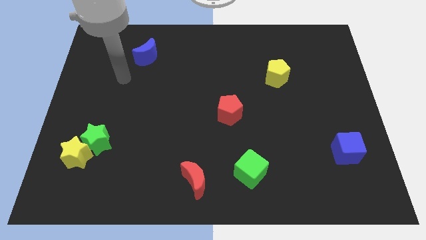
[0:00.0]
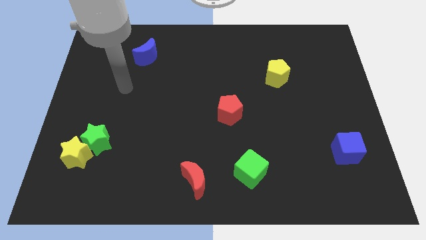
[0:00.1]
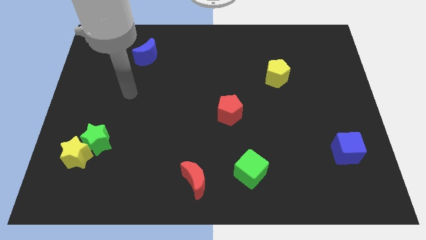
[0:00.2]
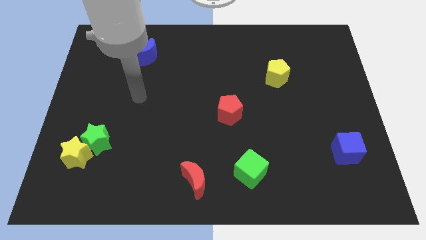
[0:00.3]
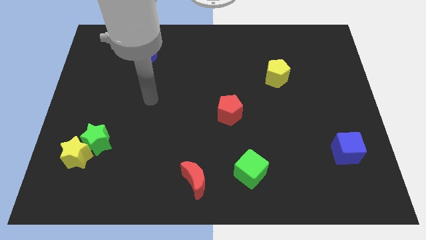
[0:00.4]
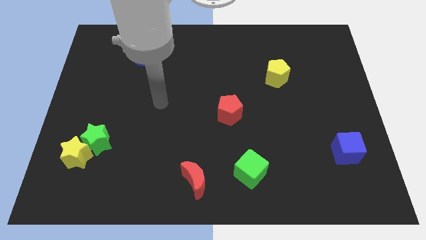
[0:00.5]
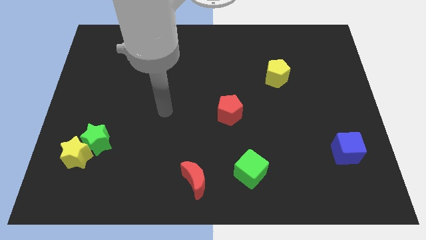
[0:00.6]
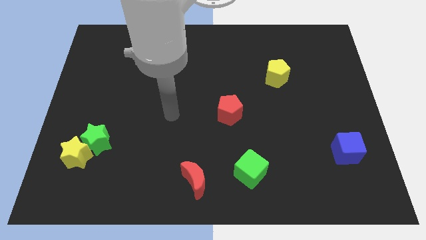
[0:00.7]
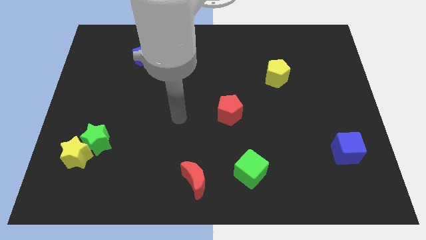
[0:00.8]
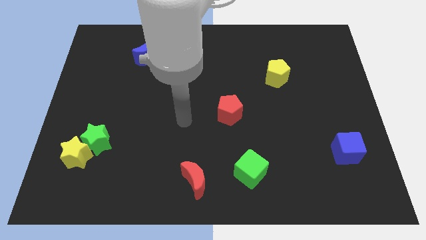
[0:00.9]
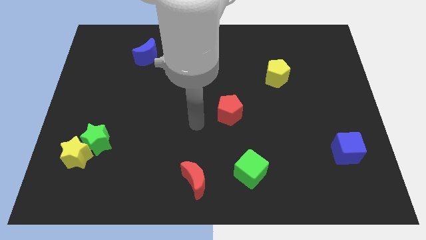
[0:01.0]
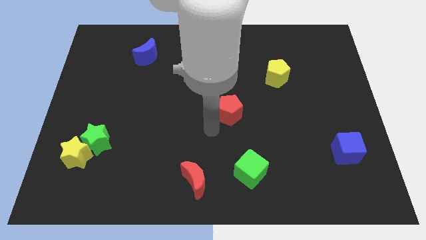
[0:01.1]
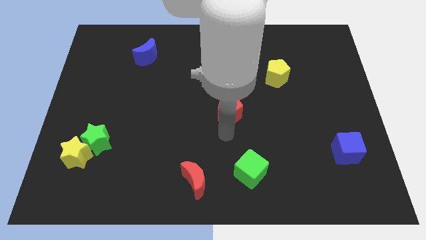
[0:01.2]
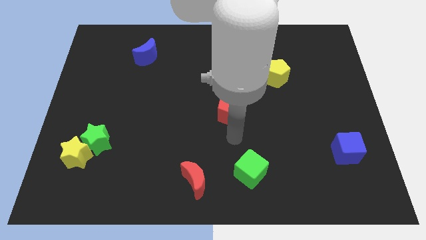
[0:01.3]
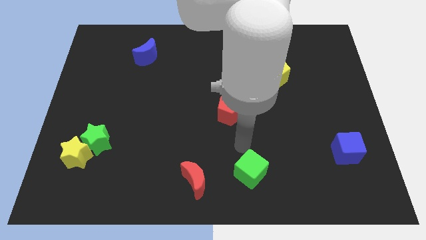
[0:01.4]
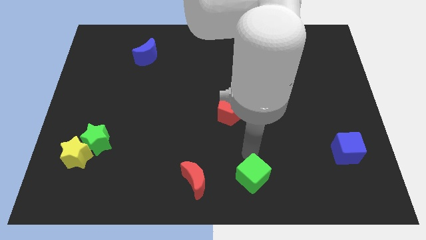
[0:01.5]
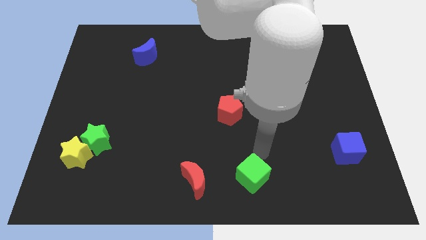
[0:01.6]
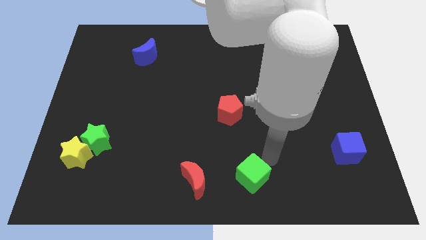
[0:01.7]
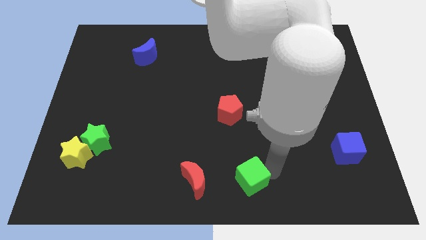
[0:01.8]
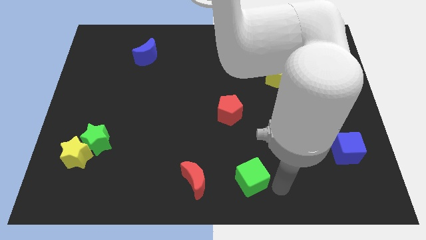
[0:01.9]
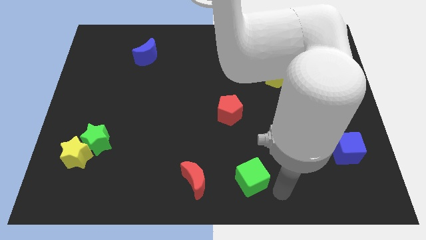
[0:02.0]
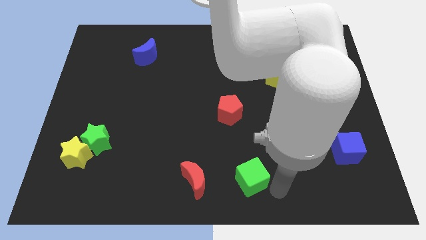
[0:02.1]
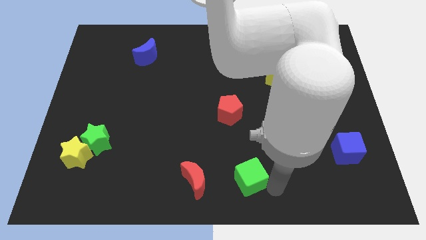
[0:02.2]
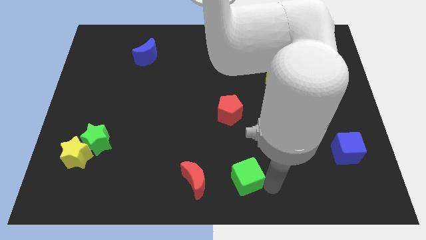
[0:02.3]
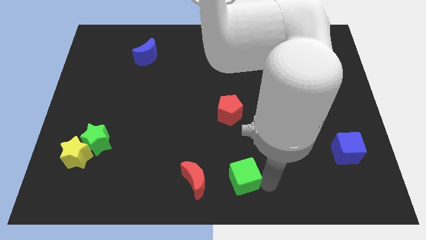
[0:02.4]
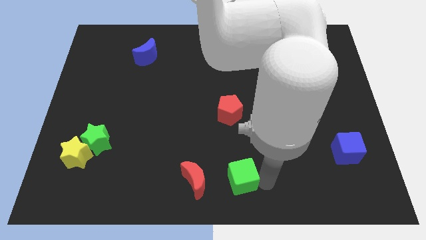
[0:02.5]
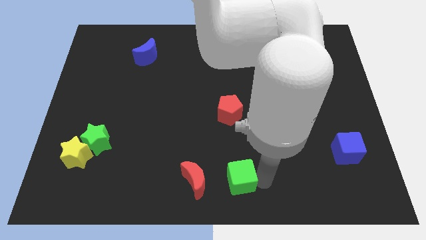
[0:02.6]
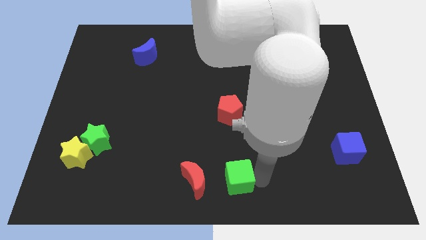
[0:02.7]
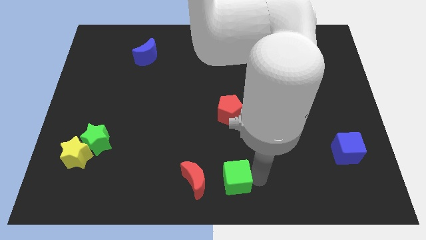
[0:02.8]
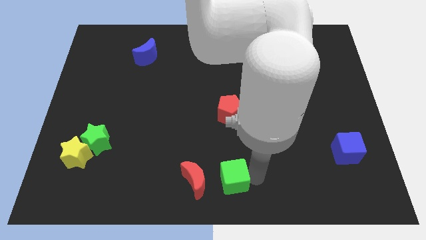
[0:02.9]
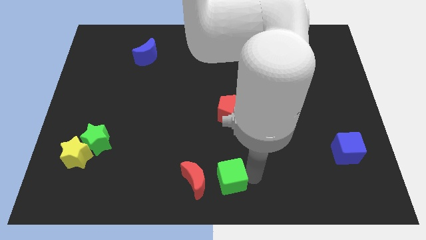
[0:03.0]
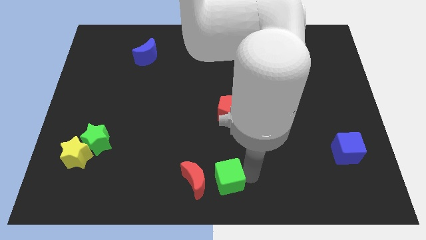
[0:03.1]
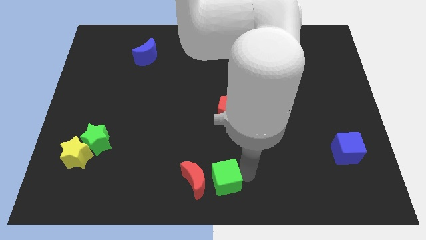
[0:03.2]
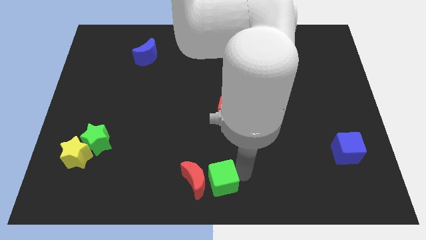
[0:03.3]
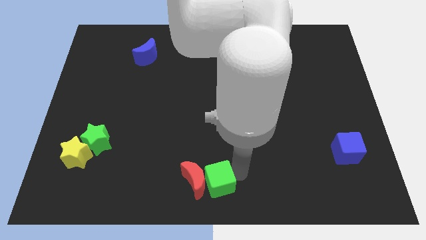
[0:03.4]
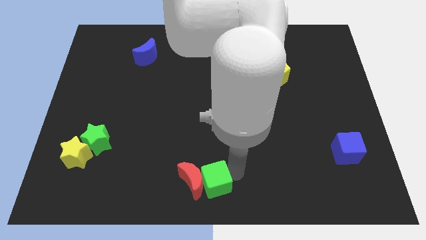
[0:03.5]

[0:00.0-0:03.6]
slightly slide the green cube to the left

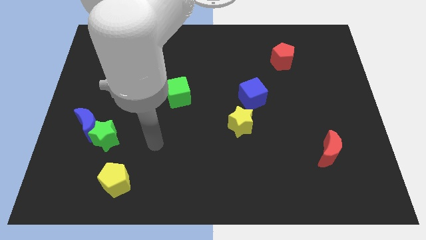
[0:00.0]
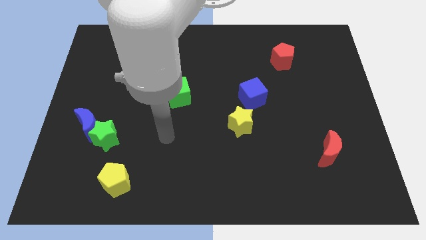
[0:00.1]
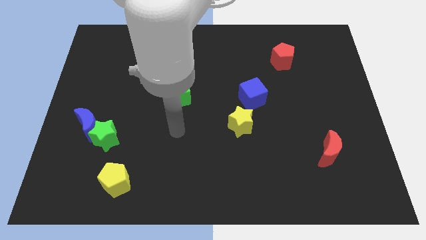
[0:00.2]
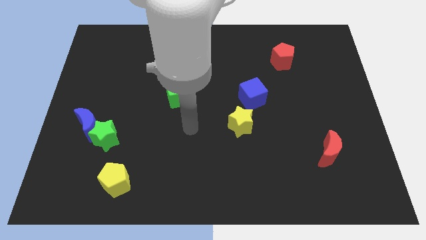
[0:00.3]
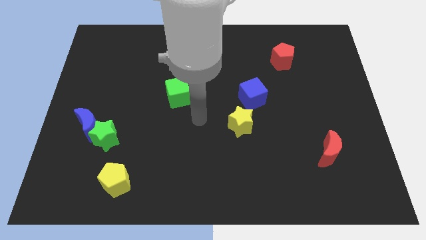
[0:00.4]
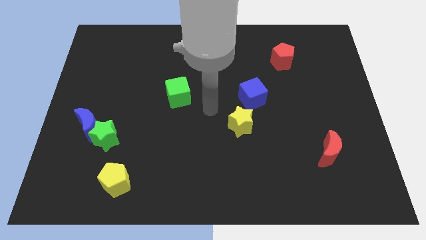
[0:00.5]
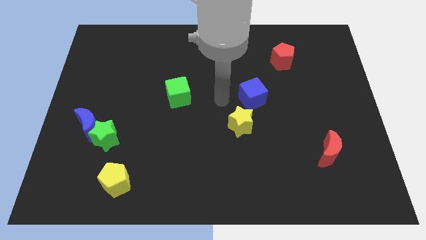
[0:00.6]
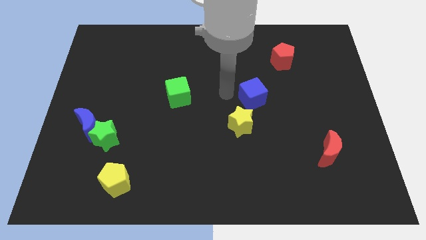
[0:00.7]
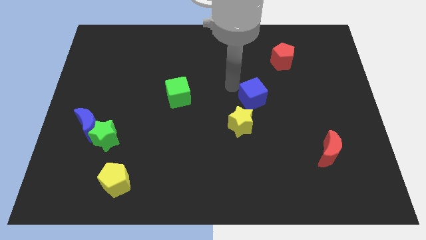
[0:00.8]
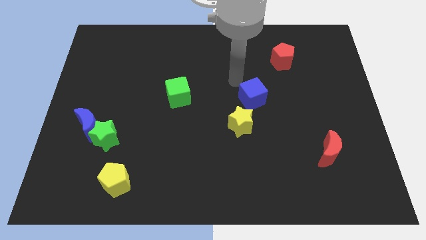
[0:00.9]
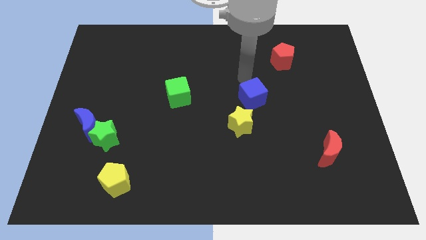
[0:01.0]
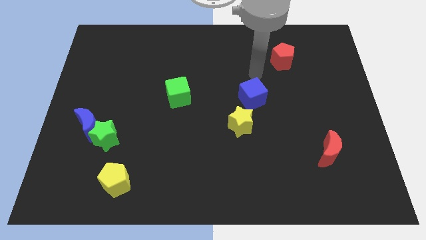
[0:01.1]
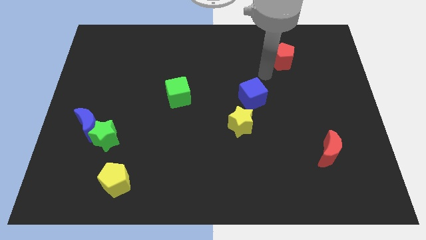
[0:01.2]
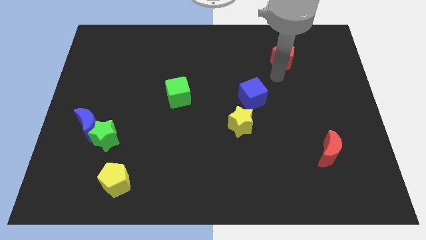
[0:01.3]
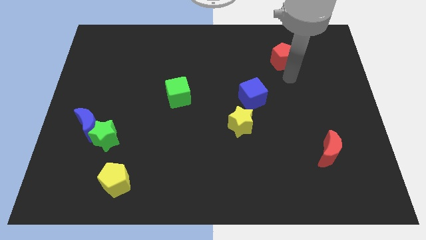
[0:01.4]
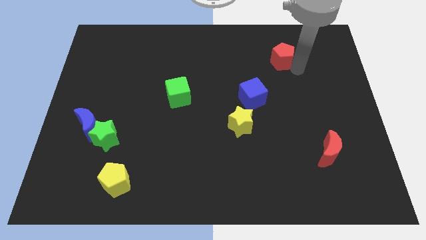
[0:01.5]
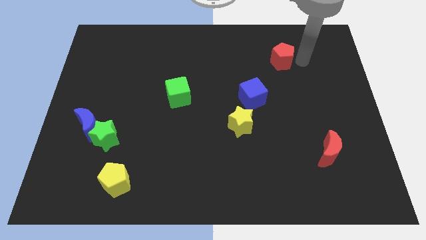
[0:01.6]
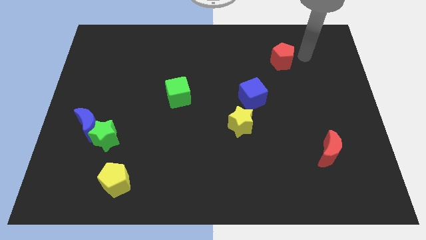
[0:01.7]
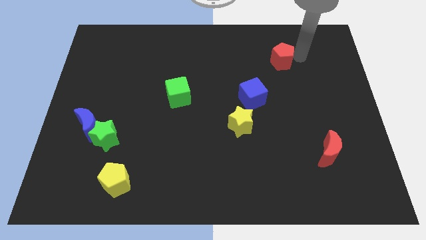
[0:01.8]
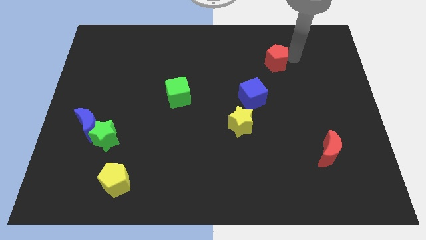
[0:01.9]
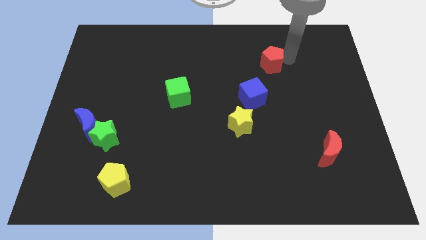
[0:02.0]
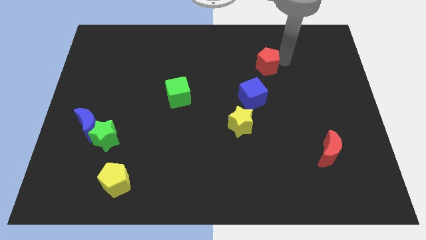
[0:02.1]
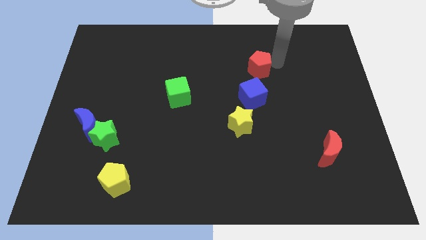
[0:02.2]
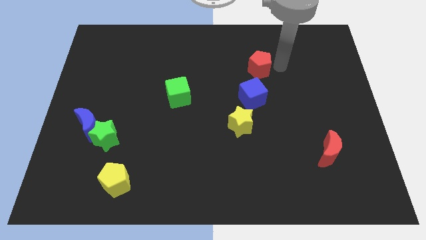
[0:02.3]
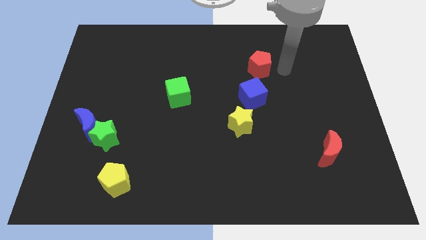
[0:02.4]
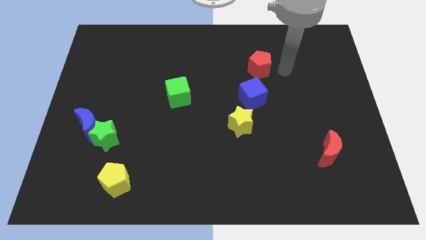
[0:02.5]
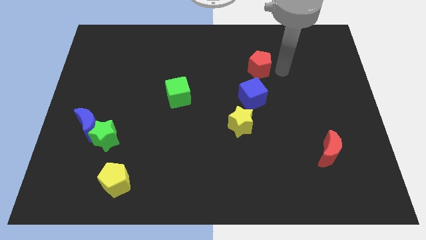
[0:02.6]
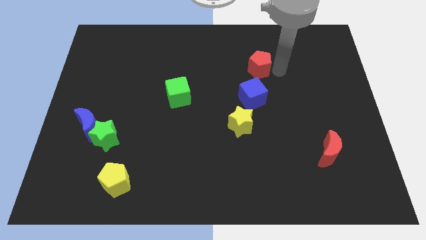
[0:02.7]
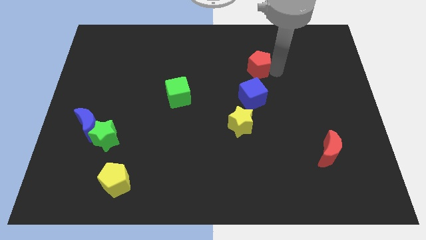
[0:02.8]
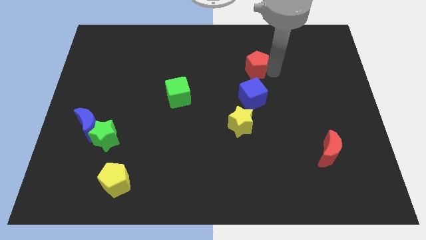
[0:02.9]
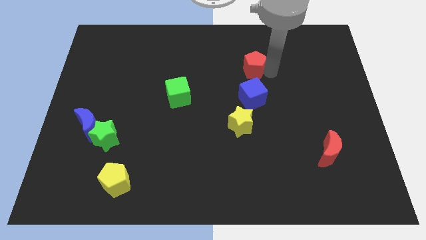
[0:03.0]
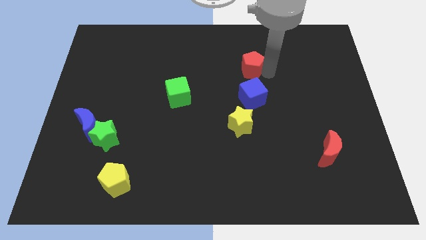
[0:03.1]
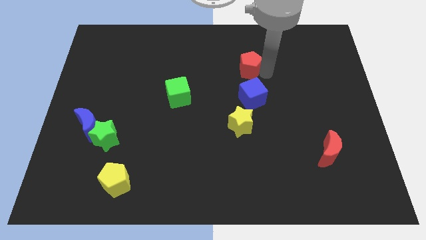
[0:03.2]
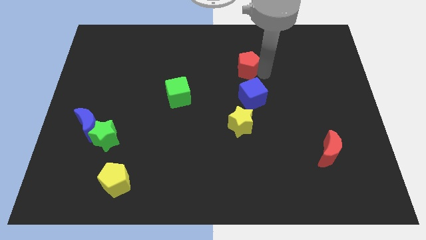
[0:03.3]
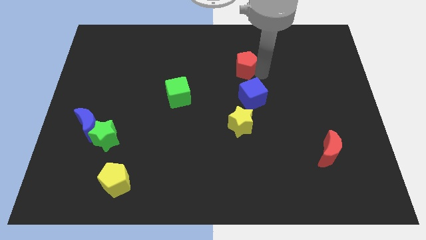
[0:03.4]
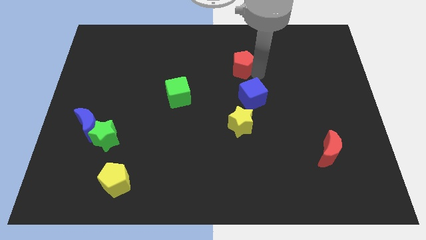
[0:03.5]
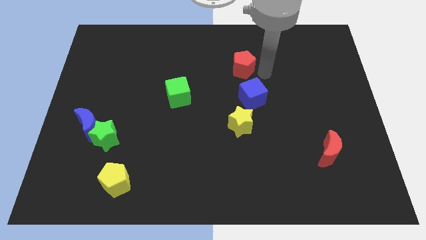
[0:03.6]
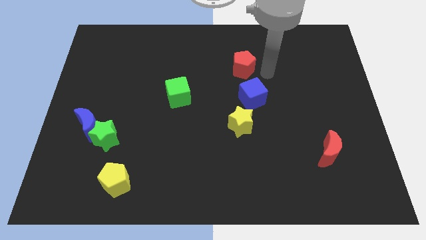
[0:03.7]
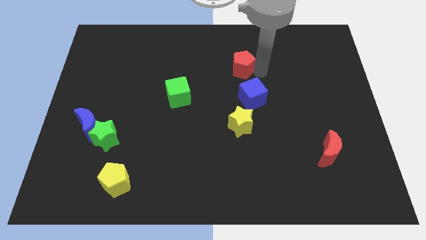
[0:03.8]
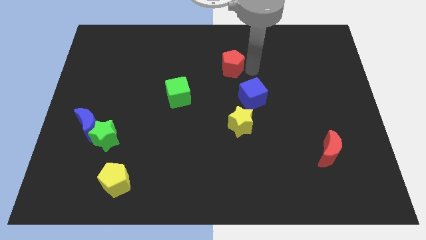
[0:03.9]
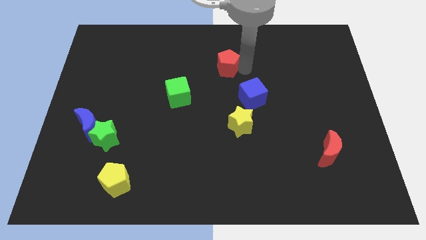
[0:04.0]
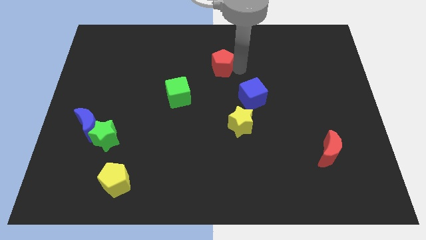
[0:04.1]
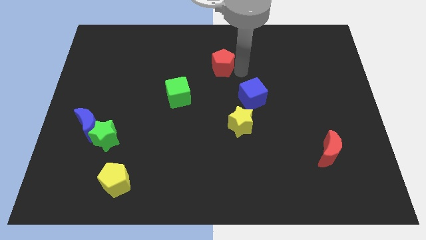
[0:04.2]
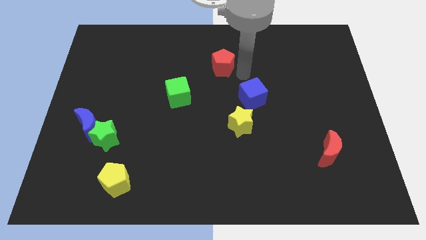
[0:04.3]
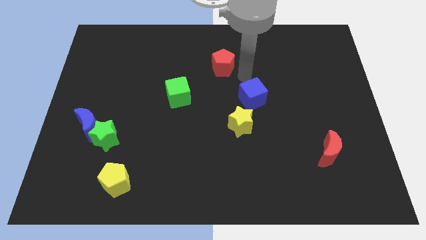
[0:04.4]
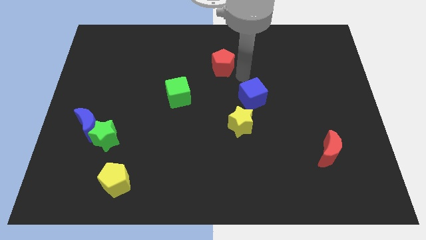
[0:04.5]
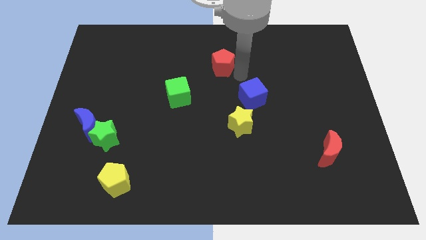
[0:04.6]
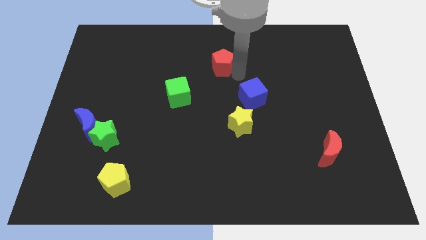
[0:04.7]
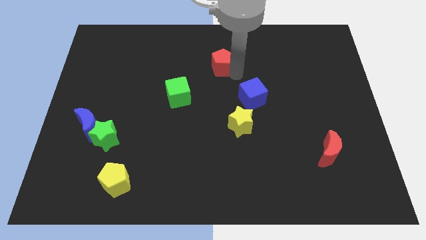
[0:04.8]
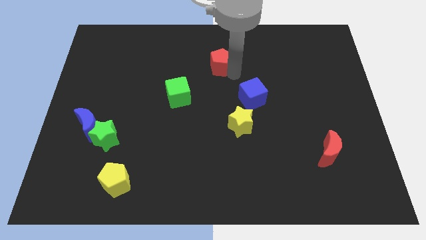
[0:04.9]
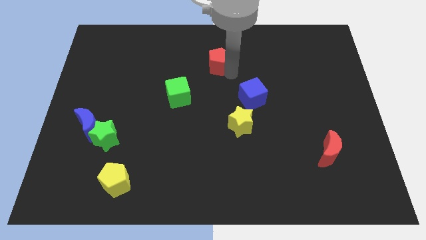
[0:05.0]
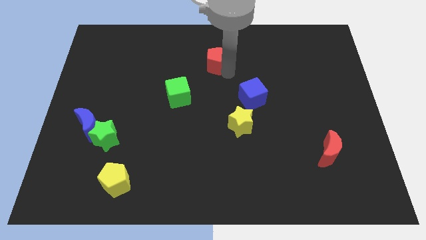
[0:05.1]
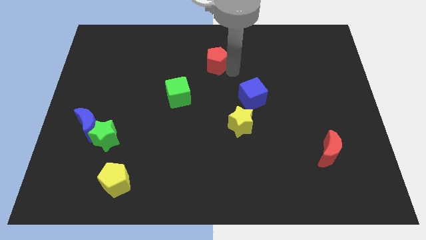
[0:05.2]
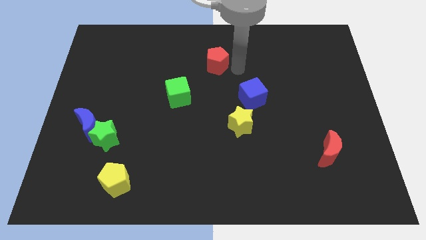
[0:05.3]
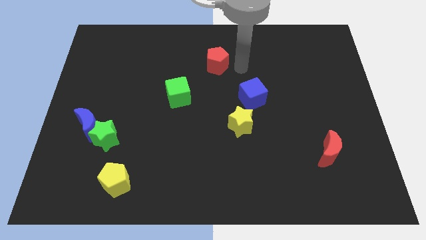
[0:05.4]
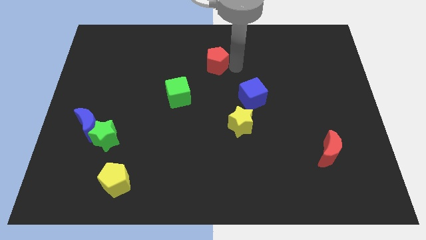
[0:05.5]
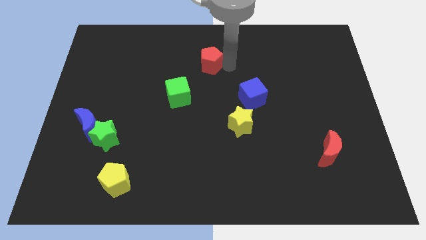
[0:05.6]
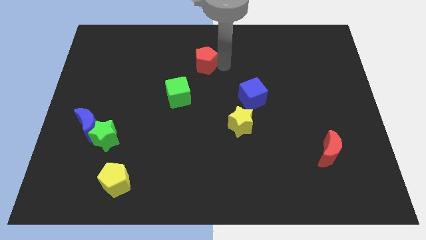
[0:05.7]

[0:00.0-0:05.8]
move the red pentagon left
